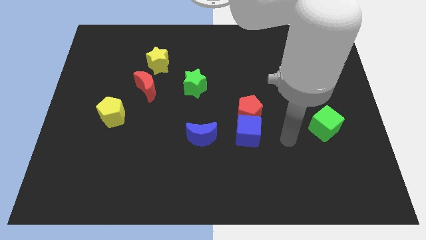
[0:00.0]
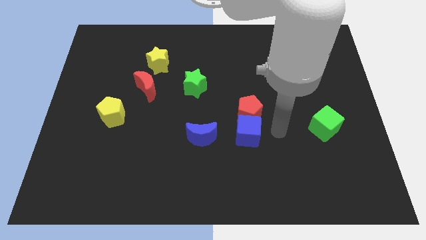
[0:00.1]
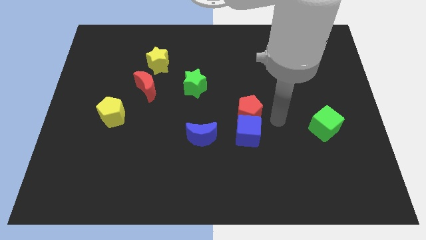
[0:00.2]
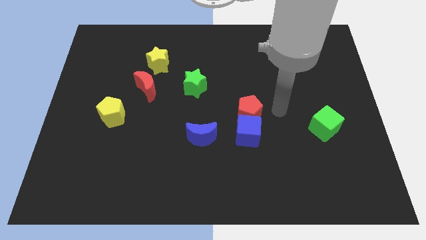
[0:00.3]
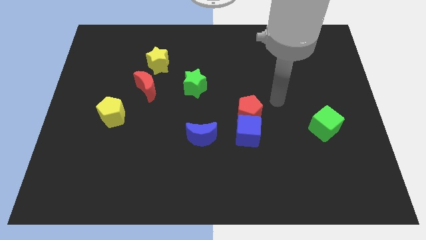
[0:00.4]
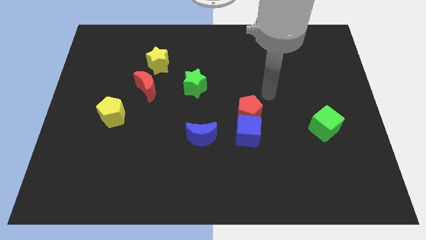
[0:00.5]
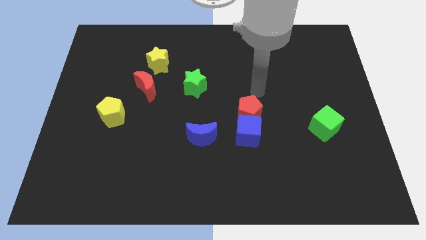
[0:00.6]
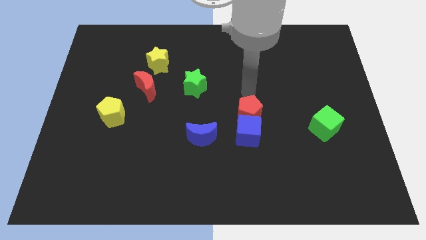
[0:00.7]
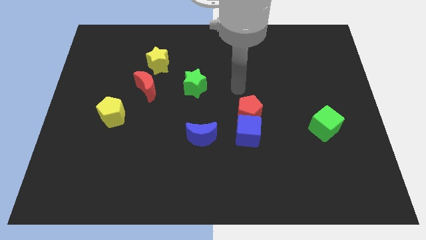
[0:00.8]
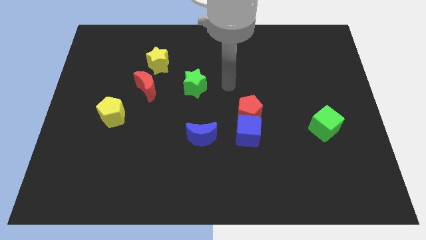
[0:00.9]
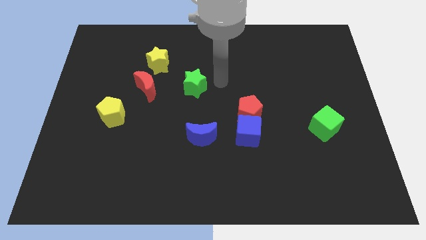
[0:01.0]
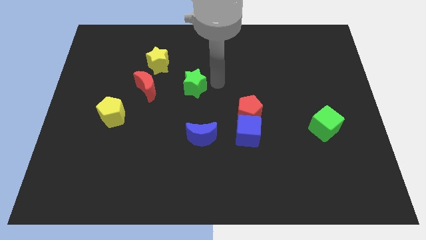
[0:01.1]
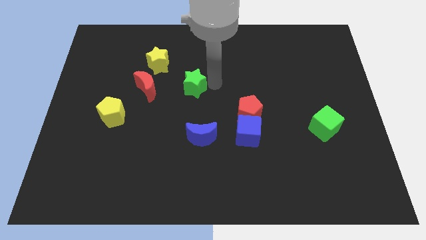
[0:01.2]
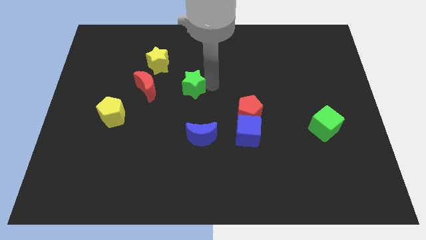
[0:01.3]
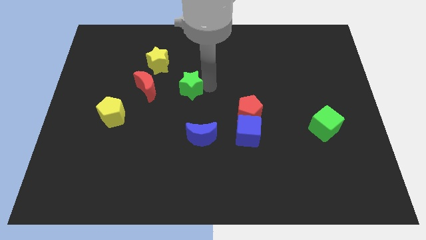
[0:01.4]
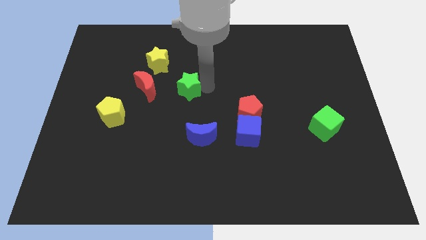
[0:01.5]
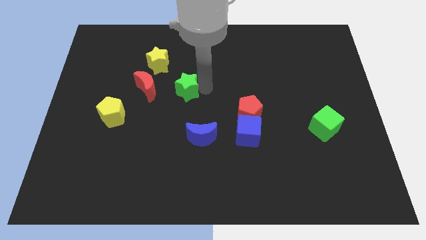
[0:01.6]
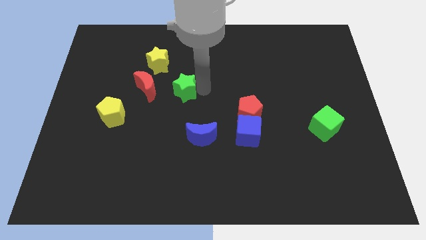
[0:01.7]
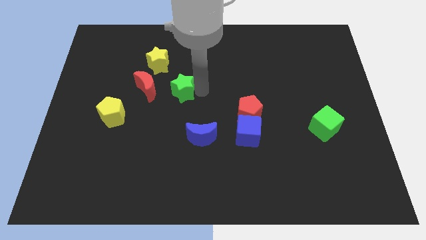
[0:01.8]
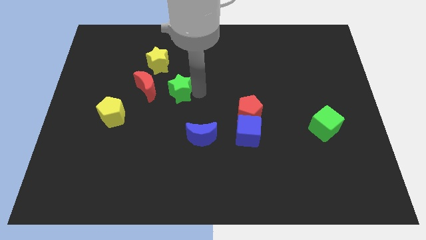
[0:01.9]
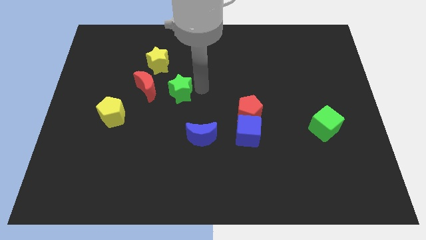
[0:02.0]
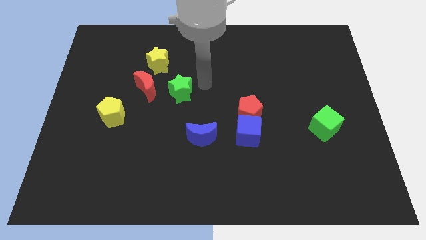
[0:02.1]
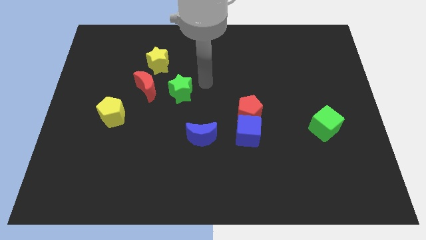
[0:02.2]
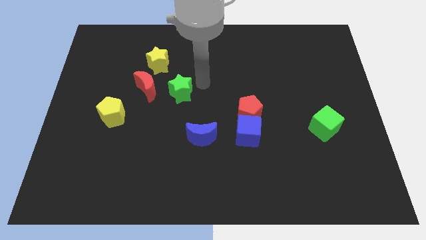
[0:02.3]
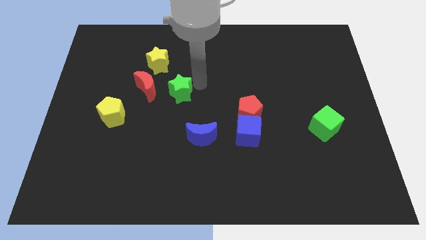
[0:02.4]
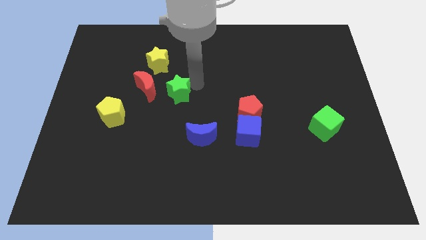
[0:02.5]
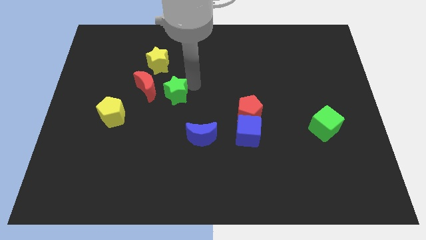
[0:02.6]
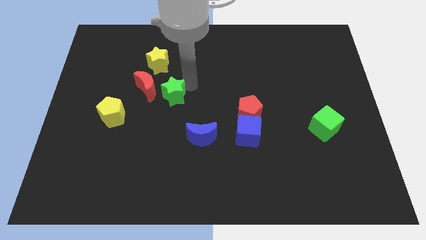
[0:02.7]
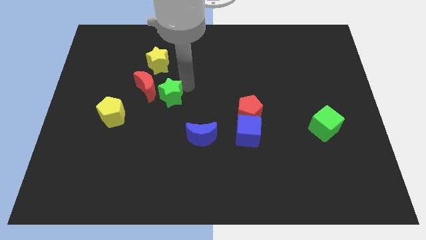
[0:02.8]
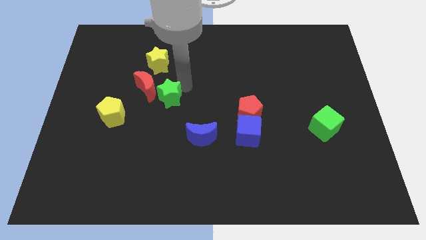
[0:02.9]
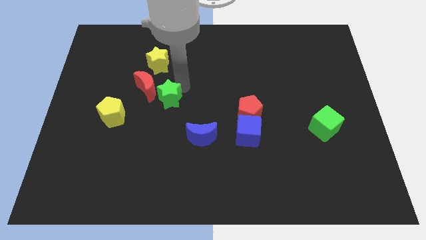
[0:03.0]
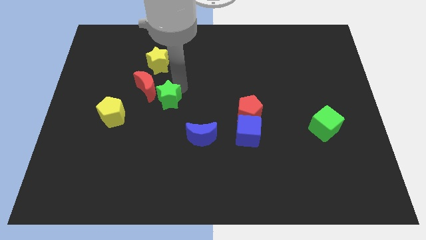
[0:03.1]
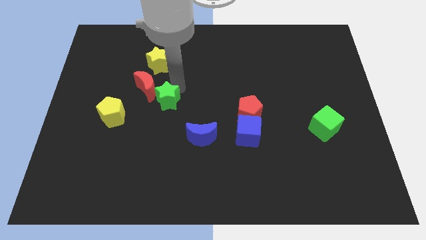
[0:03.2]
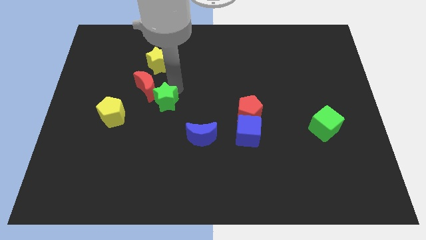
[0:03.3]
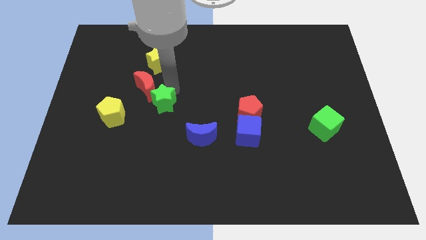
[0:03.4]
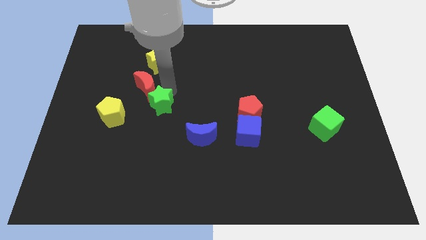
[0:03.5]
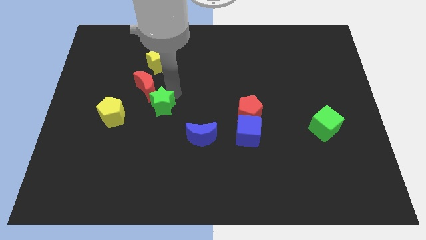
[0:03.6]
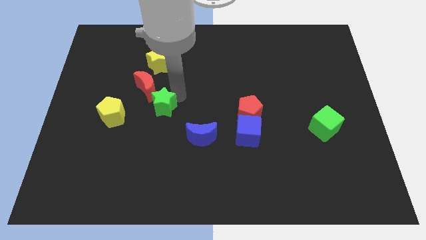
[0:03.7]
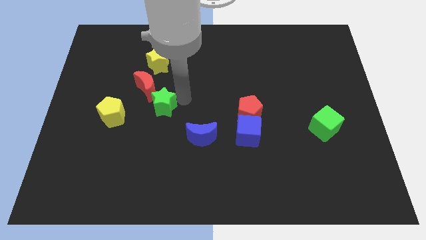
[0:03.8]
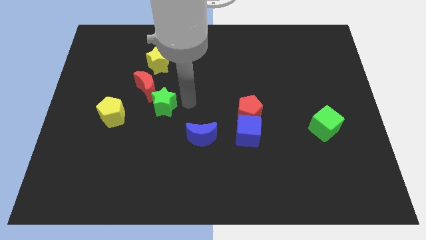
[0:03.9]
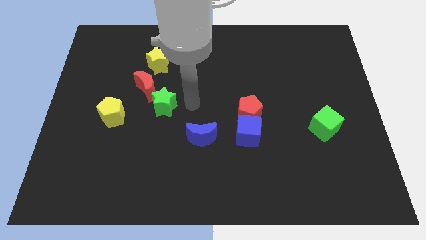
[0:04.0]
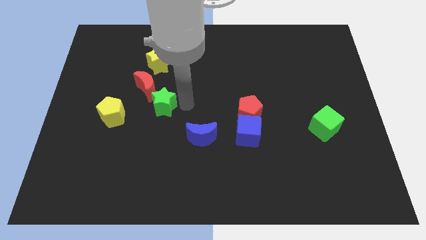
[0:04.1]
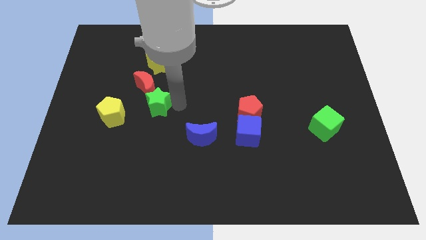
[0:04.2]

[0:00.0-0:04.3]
push the green star left a little

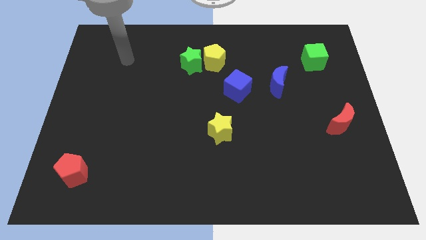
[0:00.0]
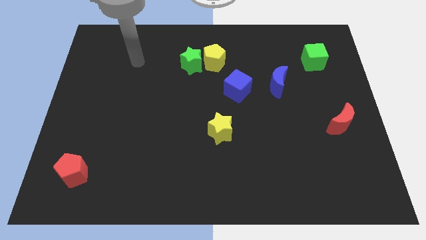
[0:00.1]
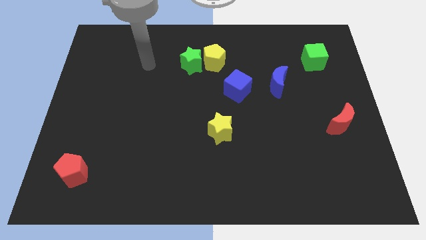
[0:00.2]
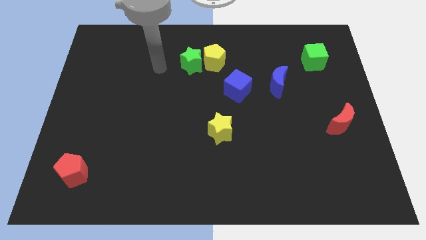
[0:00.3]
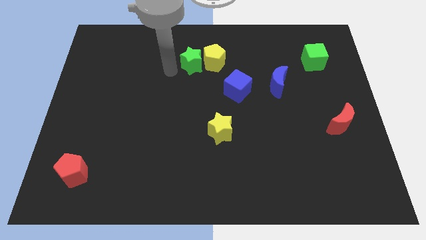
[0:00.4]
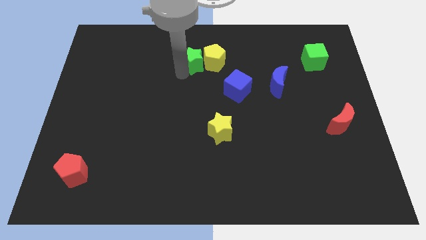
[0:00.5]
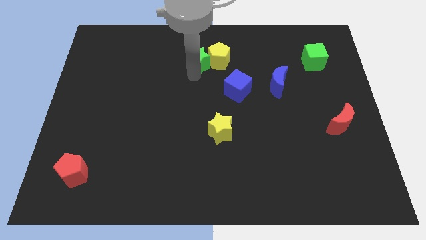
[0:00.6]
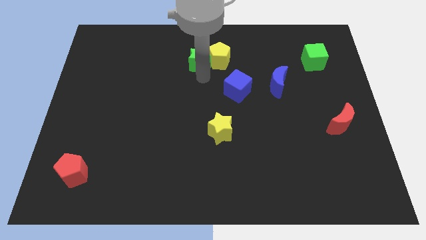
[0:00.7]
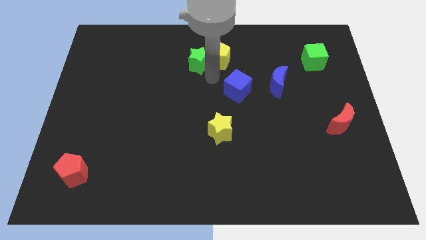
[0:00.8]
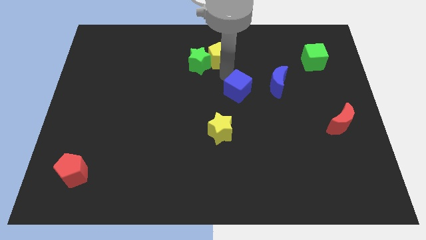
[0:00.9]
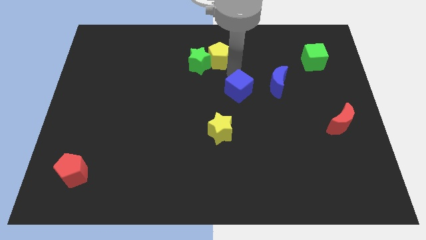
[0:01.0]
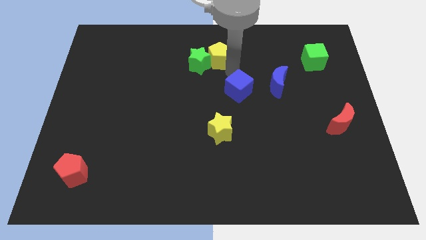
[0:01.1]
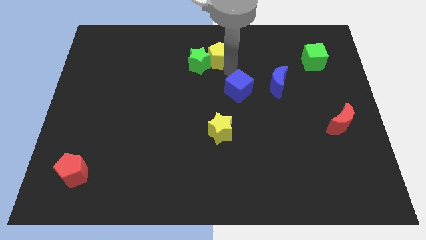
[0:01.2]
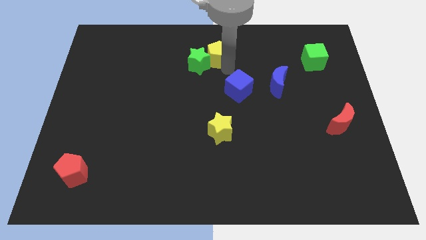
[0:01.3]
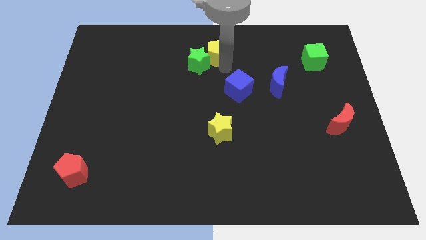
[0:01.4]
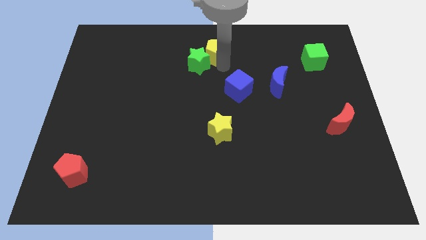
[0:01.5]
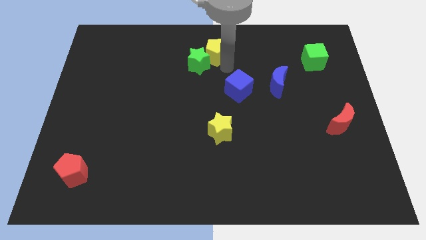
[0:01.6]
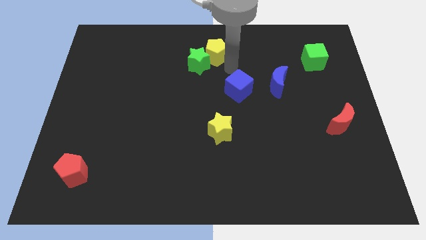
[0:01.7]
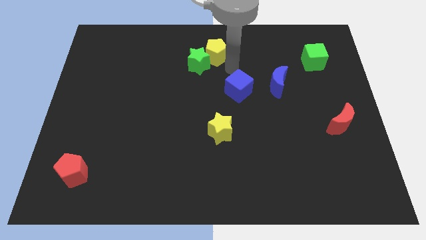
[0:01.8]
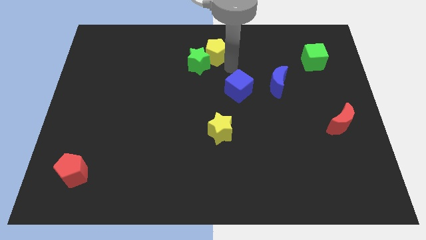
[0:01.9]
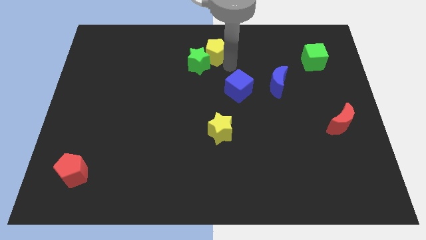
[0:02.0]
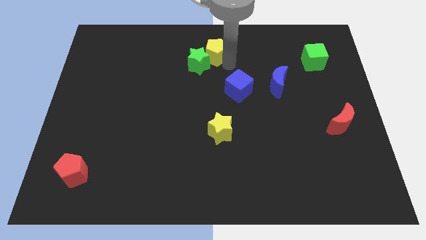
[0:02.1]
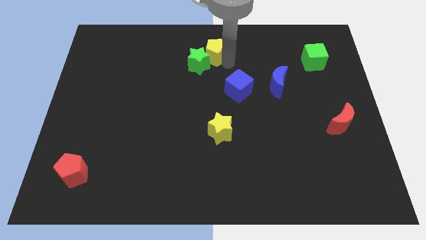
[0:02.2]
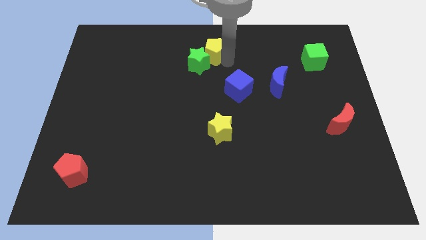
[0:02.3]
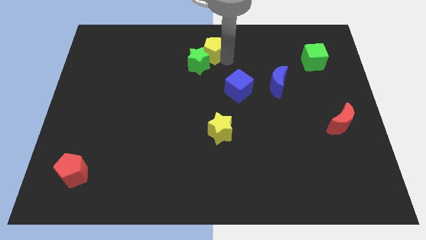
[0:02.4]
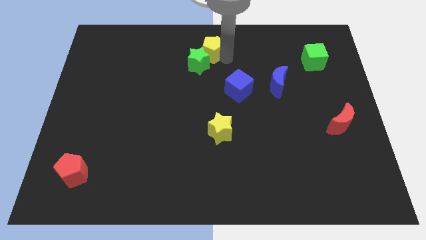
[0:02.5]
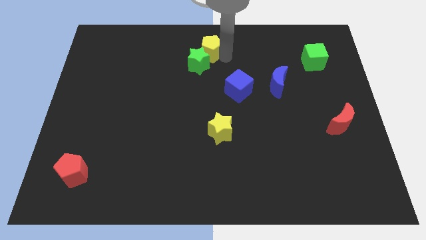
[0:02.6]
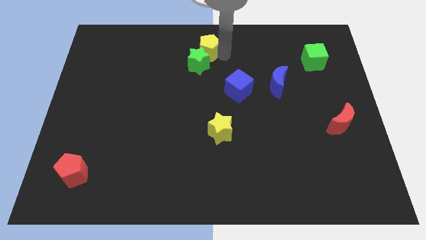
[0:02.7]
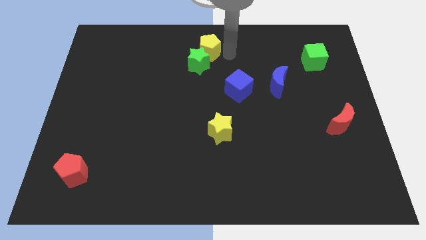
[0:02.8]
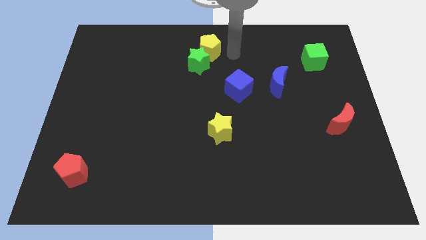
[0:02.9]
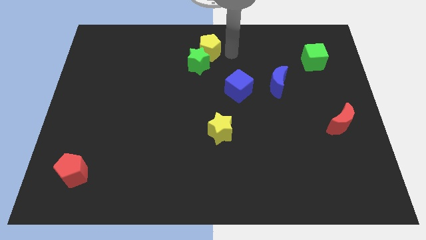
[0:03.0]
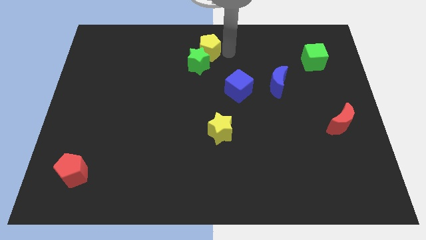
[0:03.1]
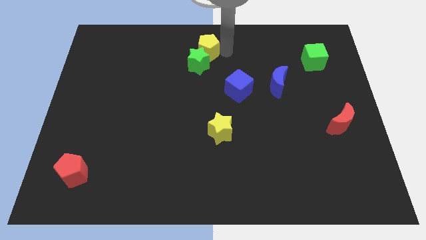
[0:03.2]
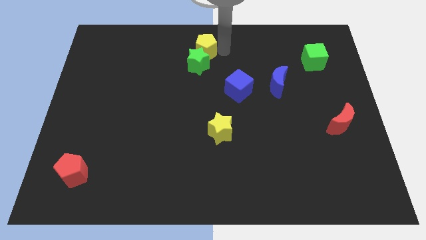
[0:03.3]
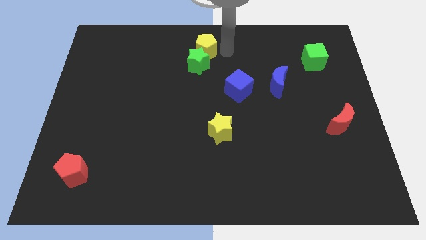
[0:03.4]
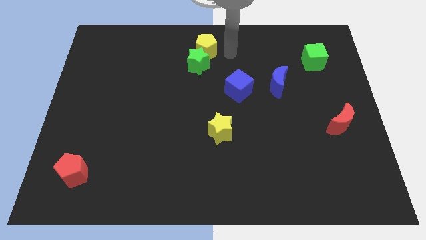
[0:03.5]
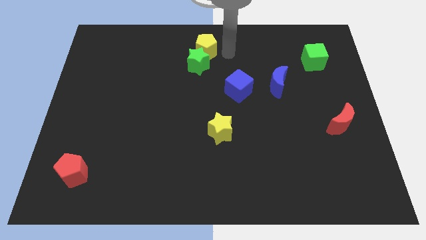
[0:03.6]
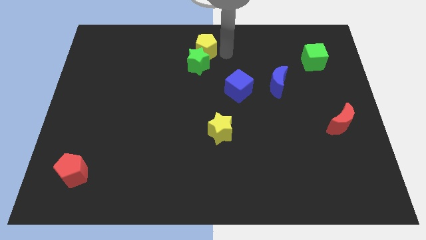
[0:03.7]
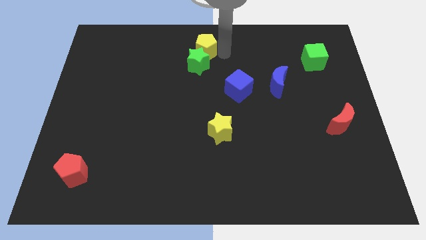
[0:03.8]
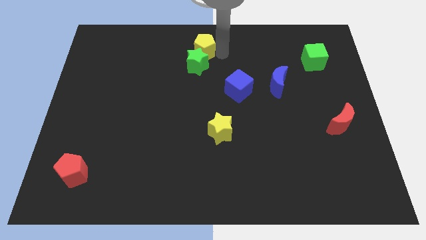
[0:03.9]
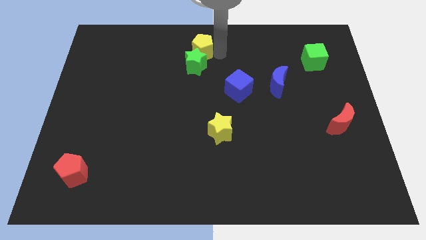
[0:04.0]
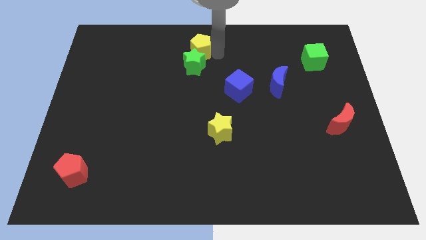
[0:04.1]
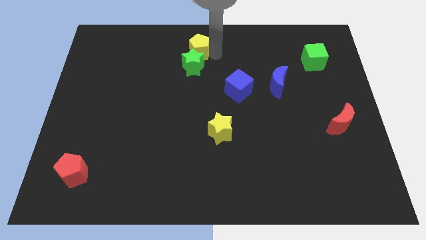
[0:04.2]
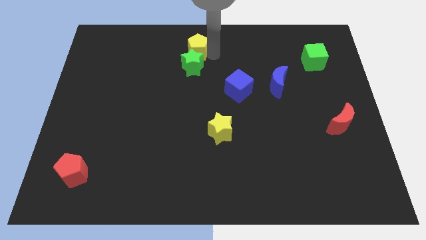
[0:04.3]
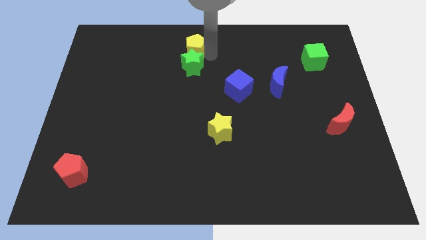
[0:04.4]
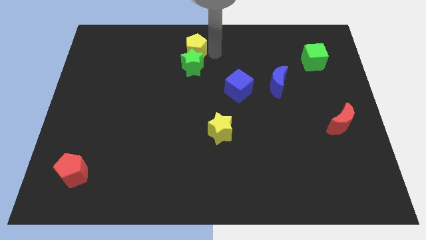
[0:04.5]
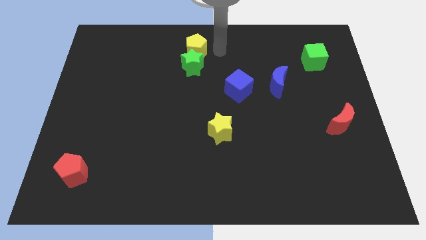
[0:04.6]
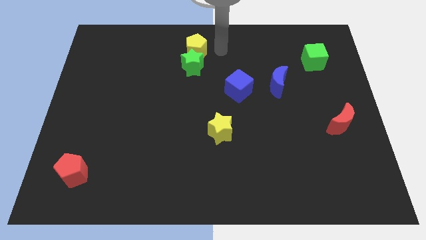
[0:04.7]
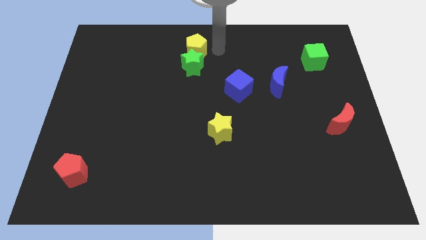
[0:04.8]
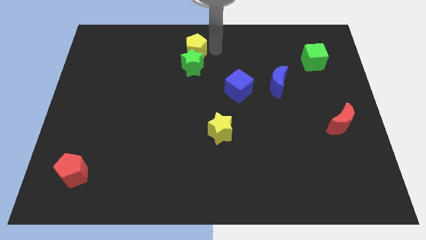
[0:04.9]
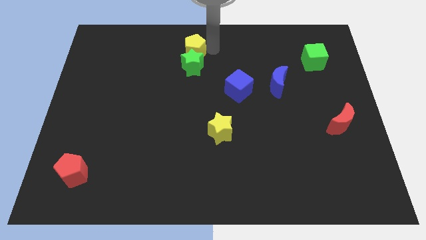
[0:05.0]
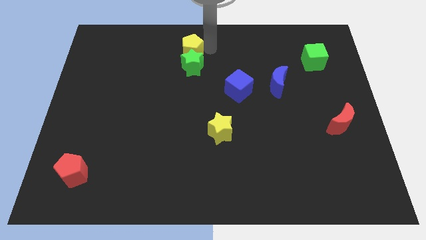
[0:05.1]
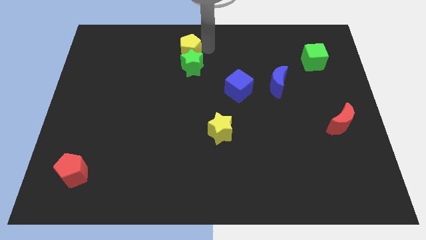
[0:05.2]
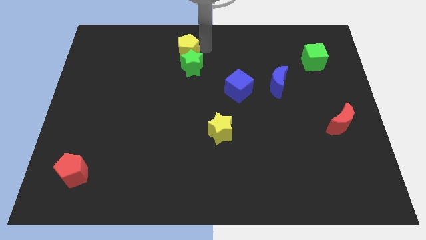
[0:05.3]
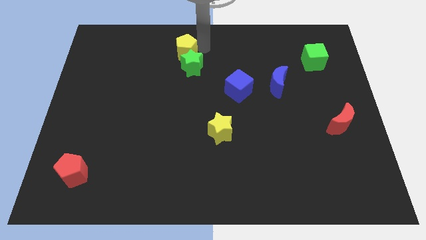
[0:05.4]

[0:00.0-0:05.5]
slightly slide the yellow pentagon to the left
